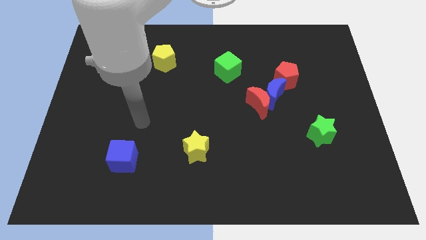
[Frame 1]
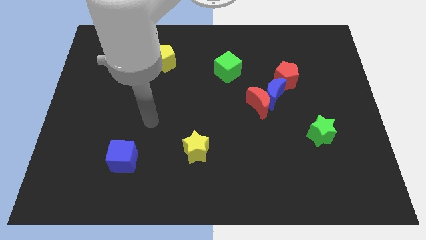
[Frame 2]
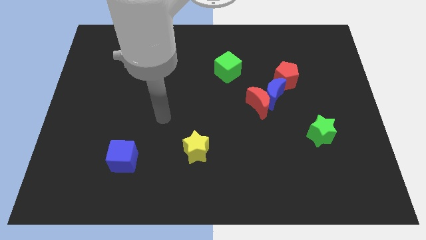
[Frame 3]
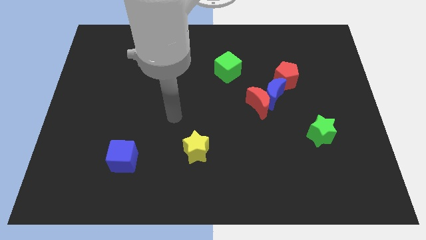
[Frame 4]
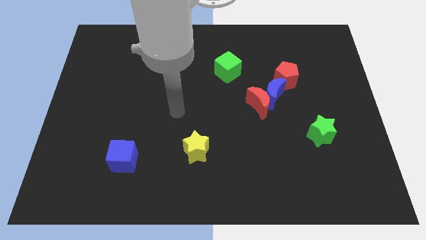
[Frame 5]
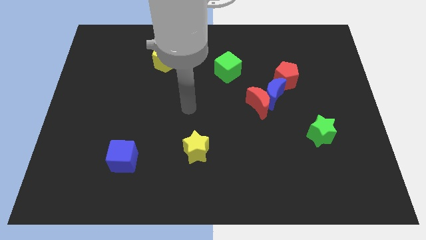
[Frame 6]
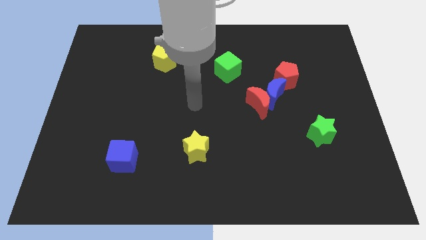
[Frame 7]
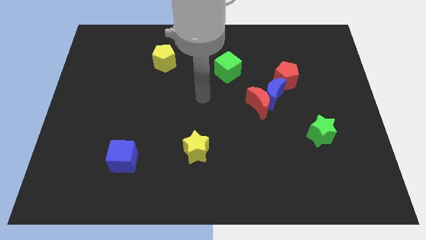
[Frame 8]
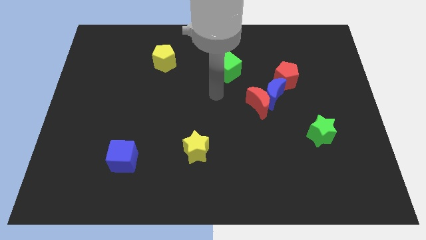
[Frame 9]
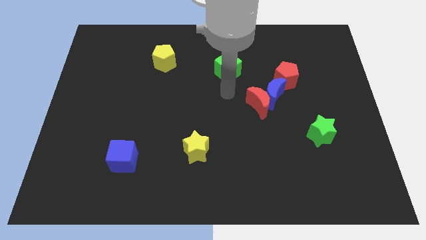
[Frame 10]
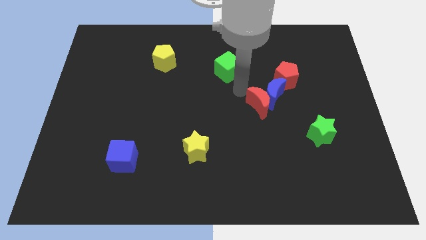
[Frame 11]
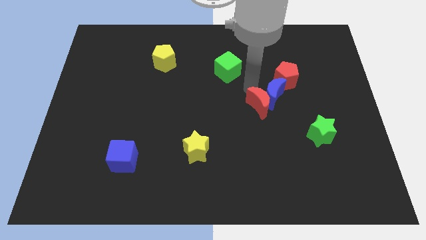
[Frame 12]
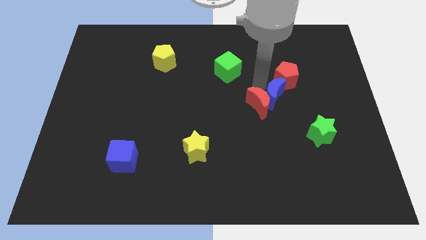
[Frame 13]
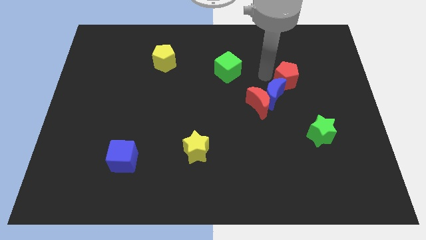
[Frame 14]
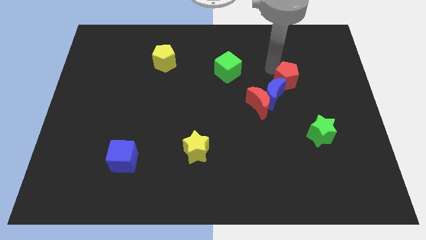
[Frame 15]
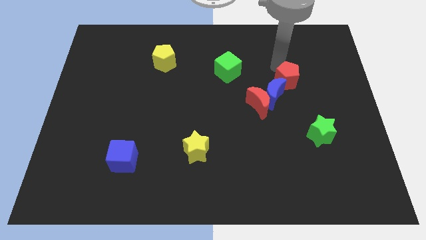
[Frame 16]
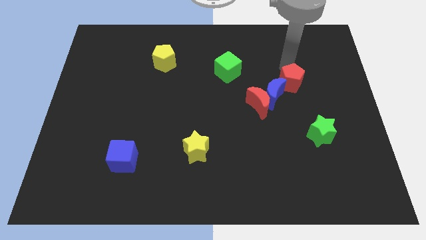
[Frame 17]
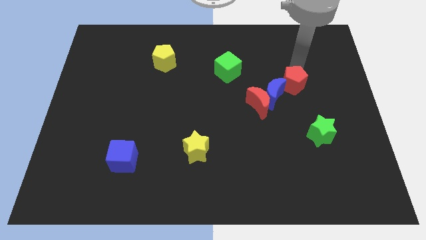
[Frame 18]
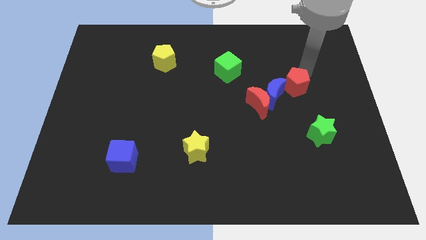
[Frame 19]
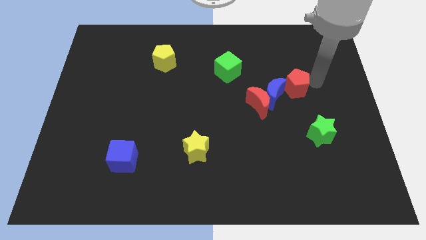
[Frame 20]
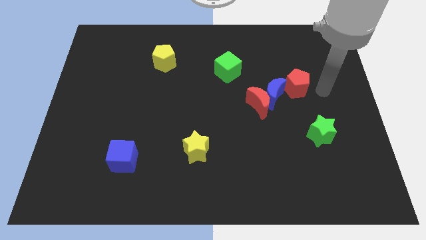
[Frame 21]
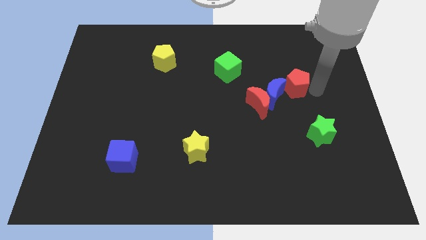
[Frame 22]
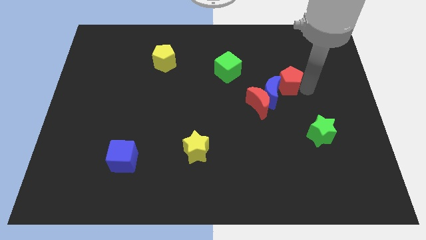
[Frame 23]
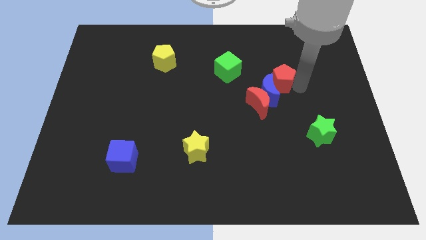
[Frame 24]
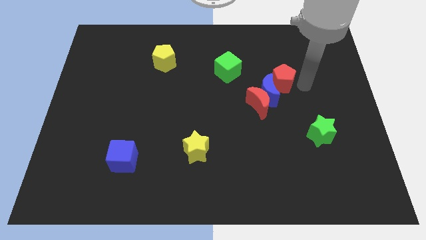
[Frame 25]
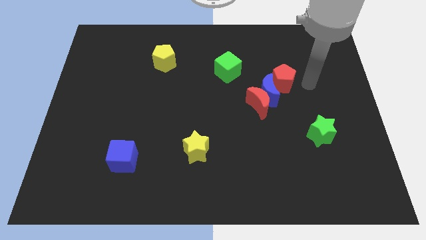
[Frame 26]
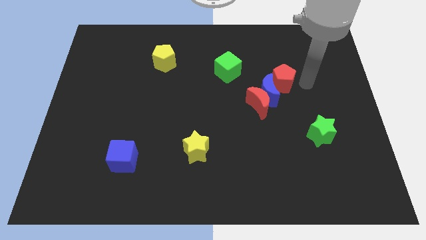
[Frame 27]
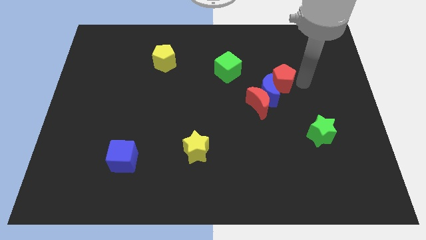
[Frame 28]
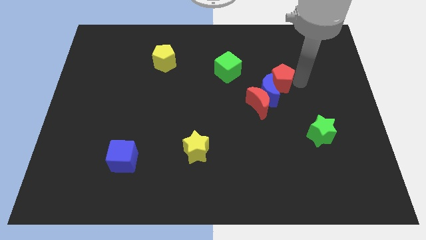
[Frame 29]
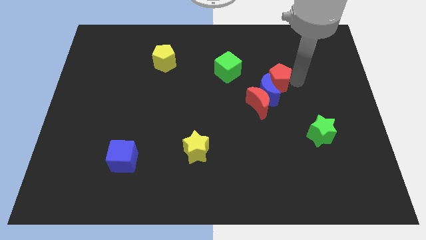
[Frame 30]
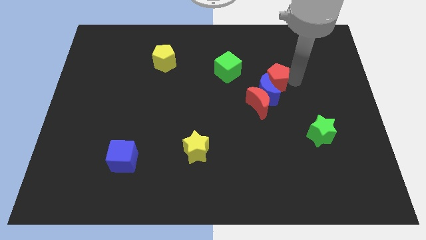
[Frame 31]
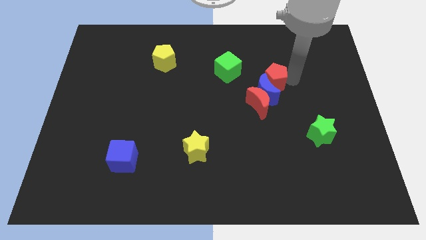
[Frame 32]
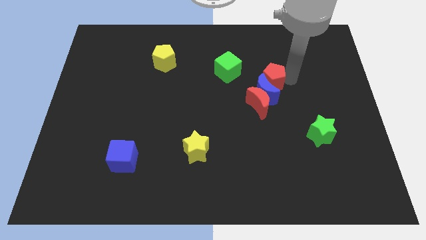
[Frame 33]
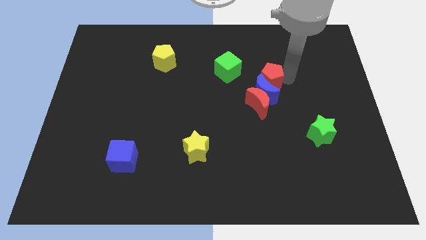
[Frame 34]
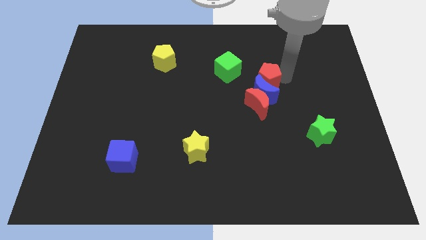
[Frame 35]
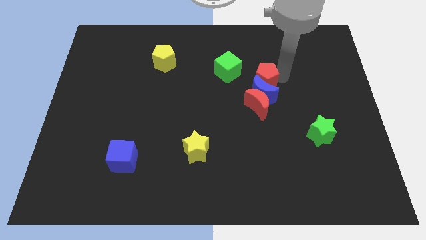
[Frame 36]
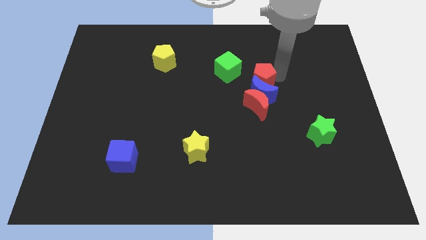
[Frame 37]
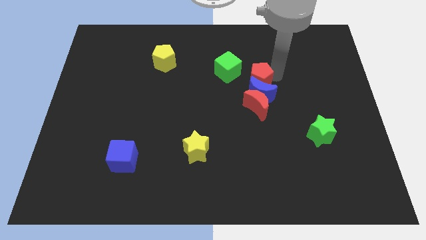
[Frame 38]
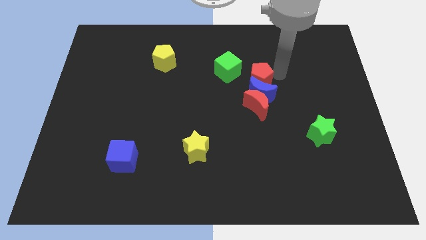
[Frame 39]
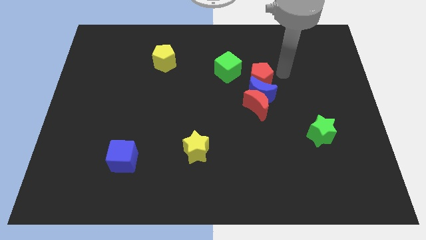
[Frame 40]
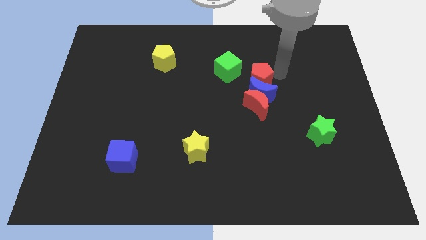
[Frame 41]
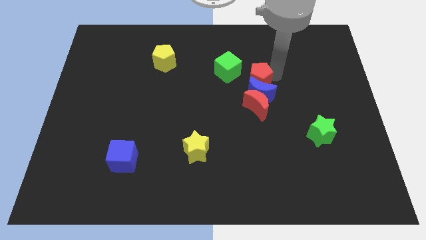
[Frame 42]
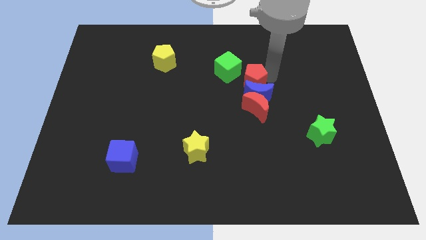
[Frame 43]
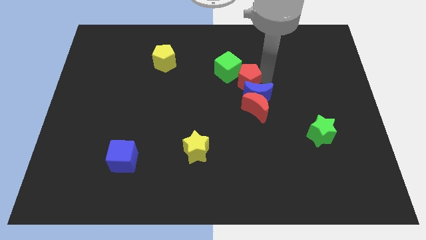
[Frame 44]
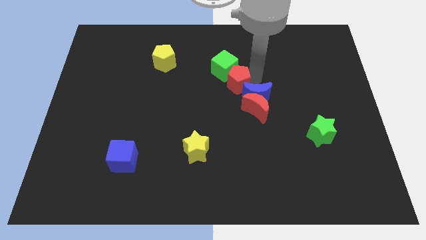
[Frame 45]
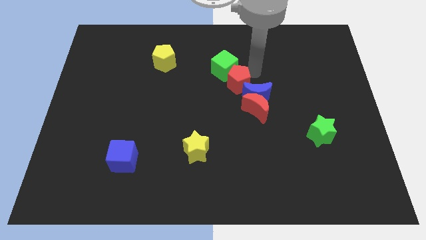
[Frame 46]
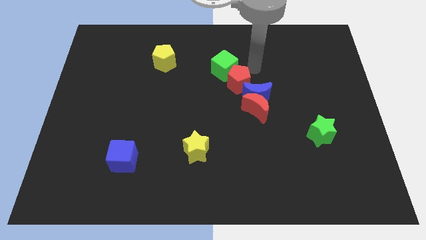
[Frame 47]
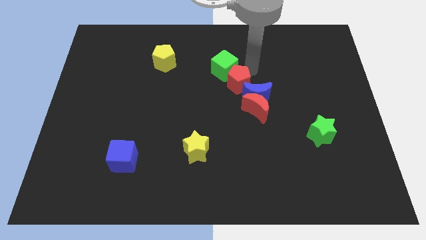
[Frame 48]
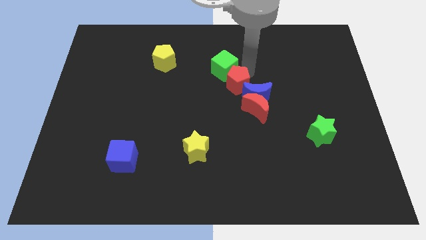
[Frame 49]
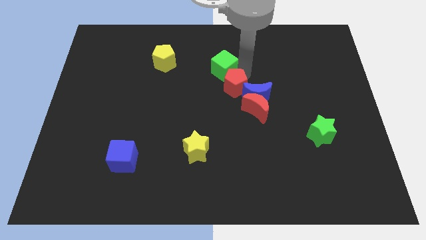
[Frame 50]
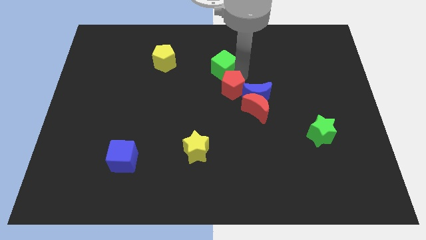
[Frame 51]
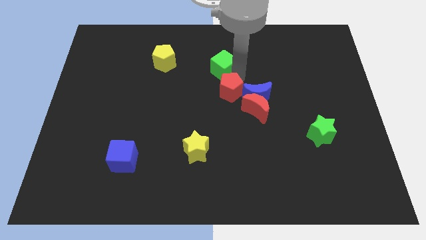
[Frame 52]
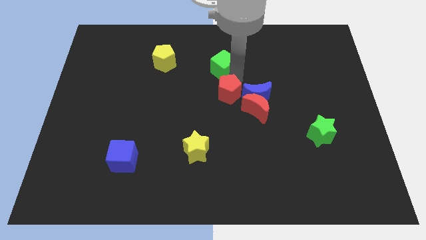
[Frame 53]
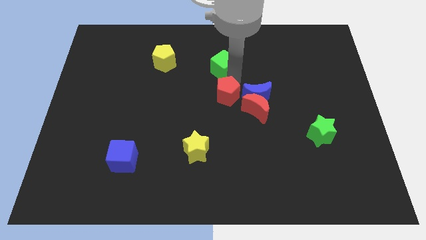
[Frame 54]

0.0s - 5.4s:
move the red pentagon to the left of the red moon
